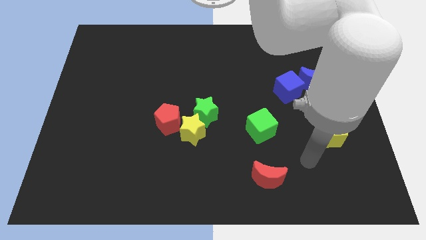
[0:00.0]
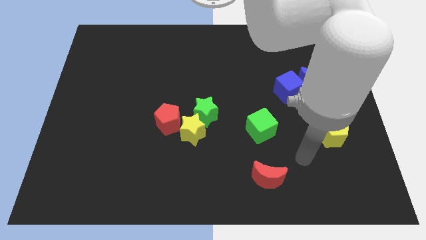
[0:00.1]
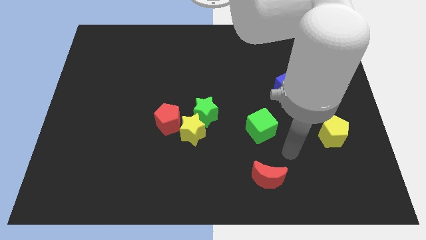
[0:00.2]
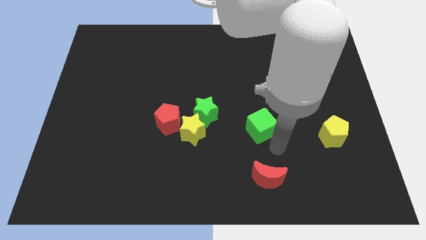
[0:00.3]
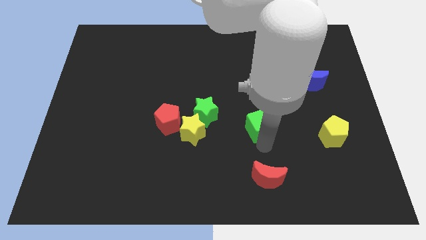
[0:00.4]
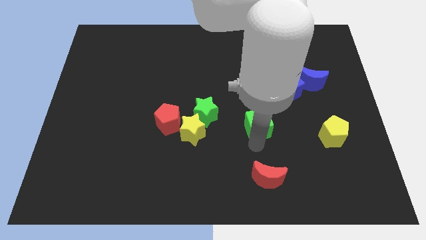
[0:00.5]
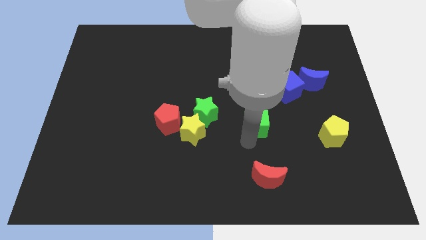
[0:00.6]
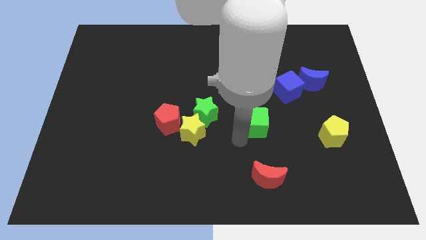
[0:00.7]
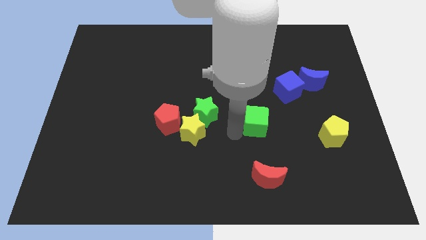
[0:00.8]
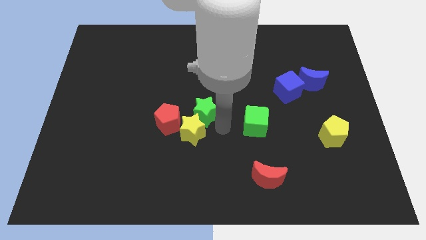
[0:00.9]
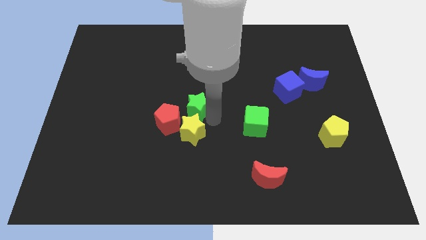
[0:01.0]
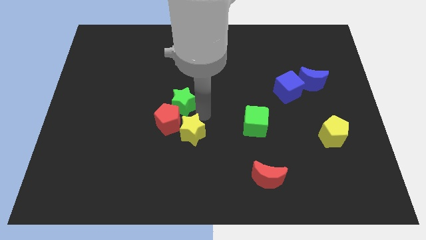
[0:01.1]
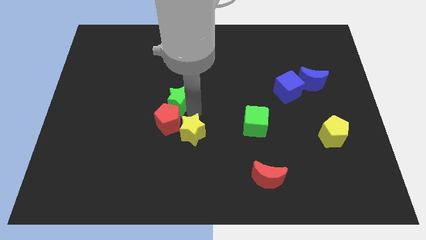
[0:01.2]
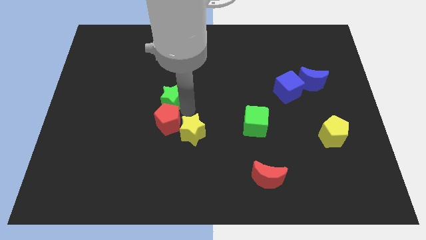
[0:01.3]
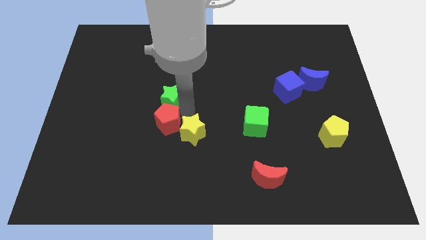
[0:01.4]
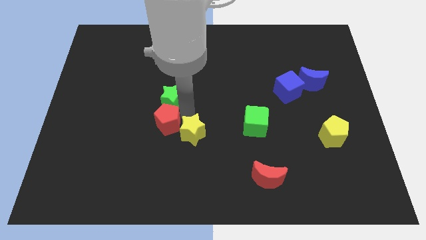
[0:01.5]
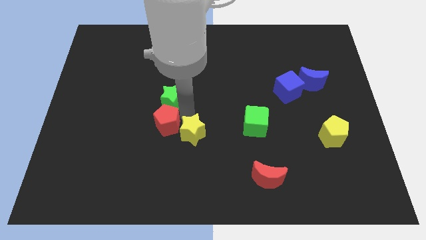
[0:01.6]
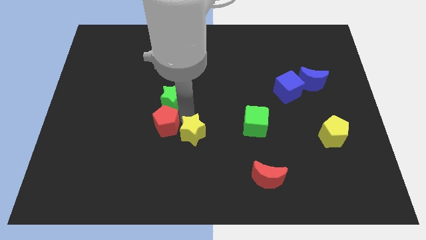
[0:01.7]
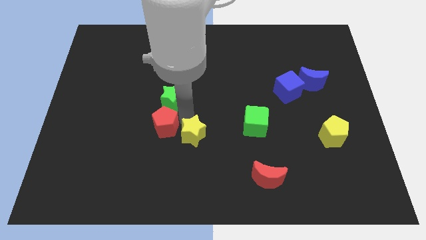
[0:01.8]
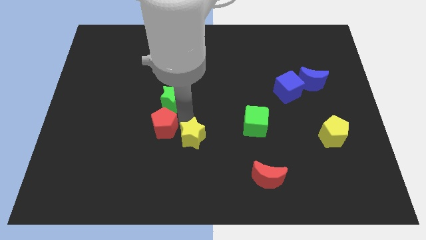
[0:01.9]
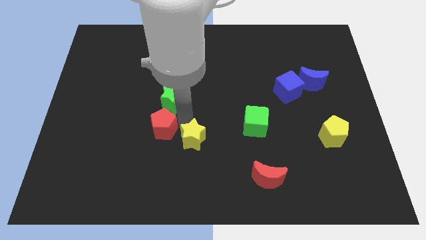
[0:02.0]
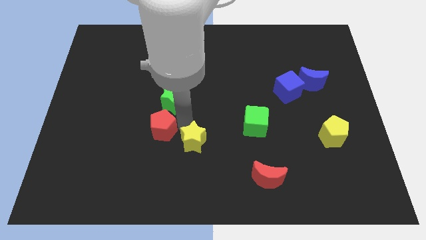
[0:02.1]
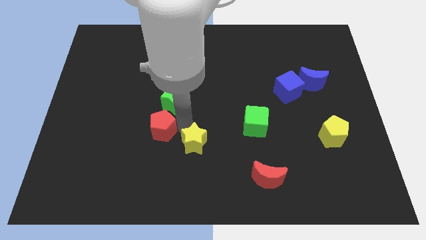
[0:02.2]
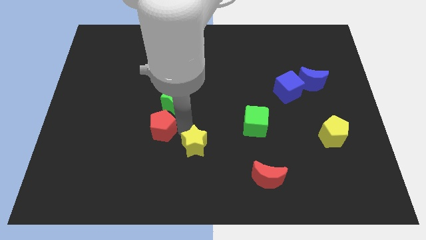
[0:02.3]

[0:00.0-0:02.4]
separate the yellow star from the green star and red pentagon

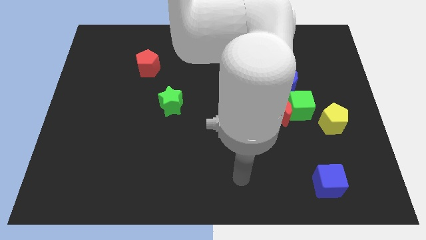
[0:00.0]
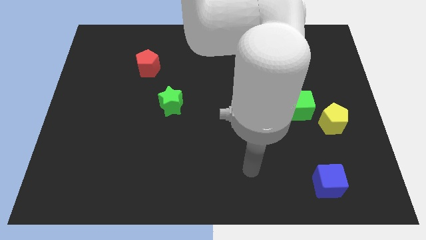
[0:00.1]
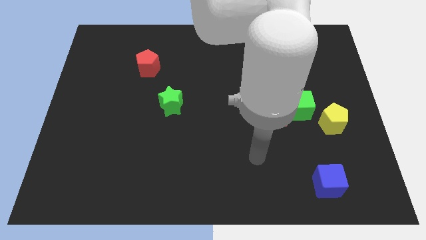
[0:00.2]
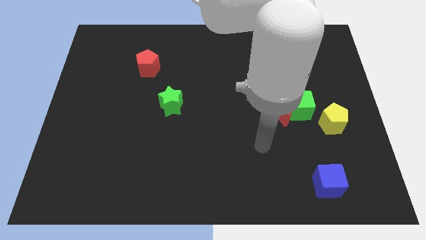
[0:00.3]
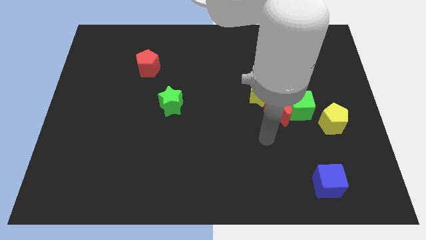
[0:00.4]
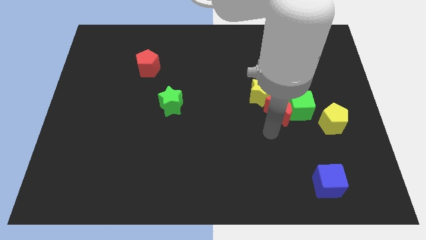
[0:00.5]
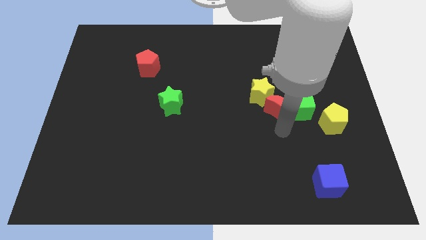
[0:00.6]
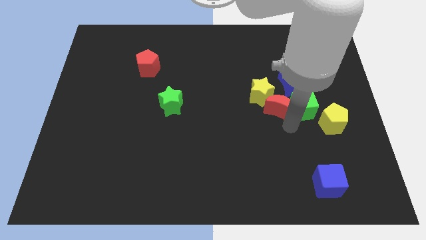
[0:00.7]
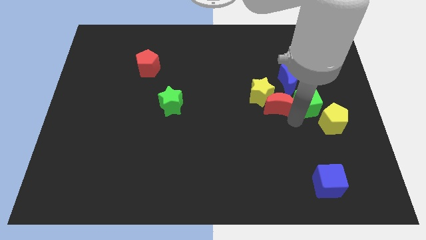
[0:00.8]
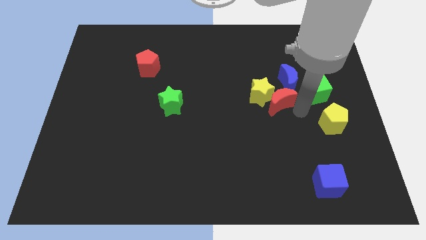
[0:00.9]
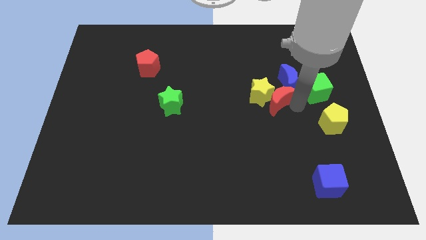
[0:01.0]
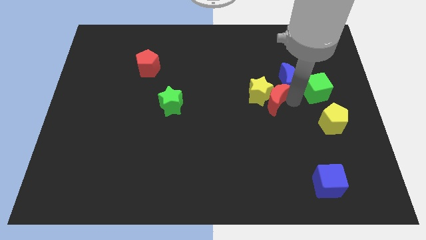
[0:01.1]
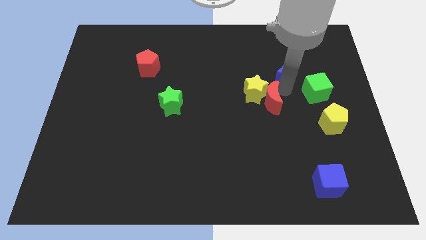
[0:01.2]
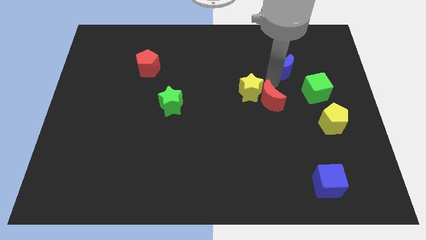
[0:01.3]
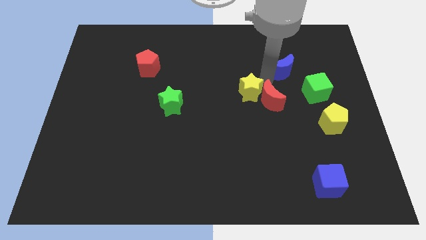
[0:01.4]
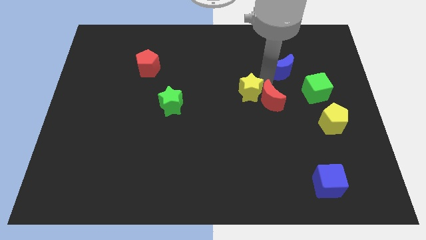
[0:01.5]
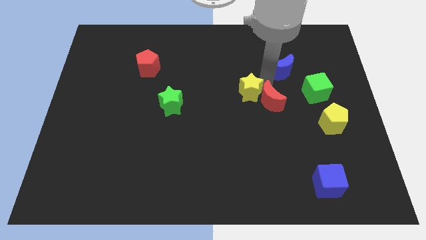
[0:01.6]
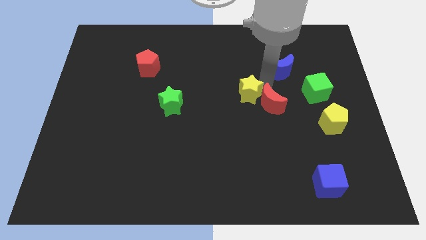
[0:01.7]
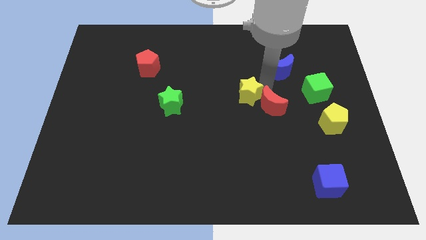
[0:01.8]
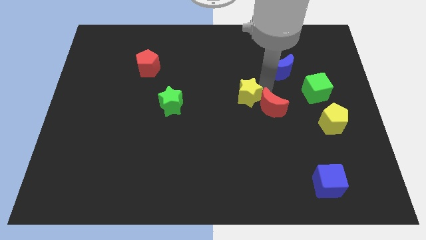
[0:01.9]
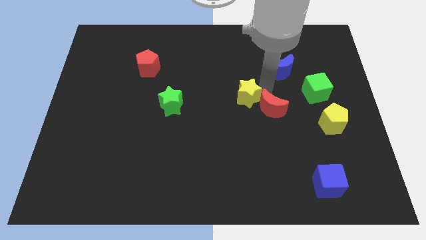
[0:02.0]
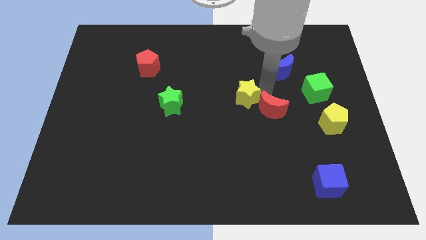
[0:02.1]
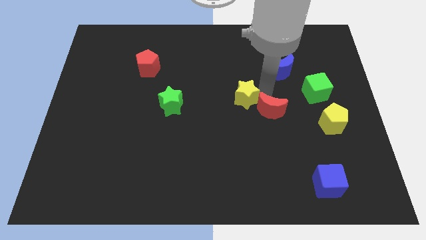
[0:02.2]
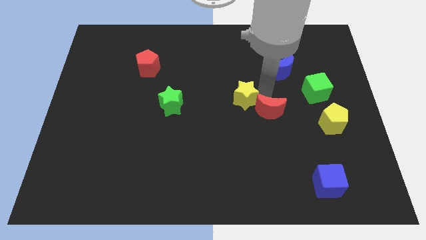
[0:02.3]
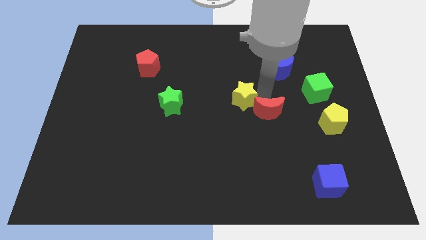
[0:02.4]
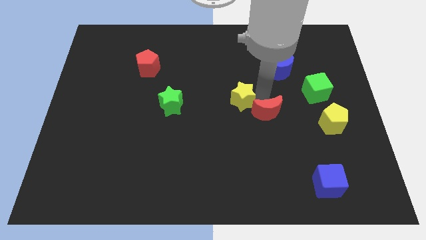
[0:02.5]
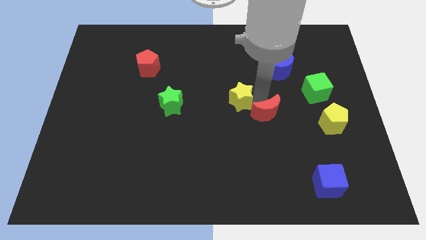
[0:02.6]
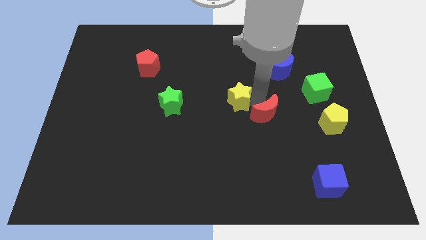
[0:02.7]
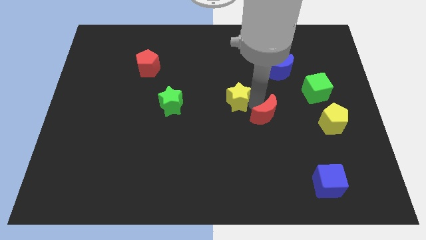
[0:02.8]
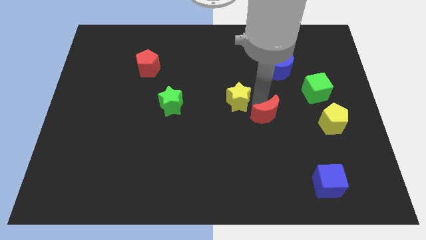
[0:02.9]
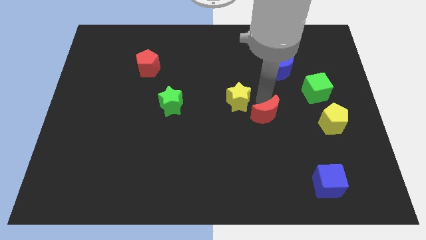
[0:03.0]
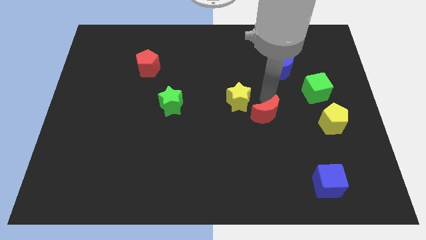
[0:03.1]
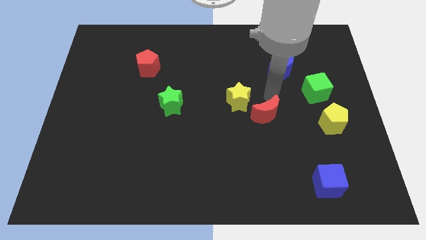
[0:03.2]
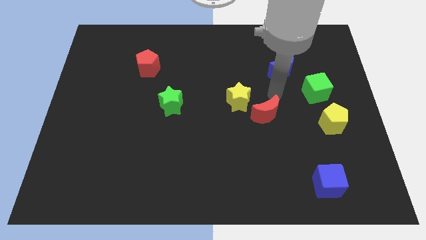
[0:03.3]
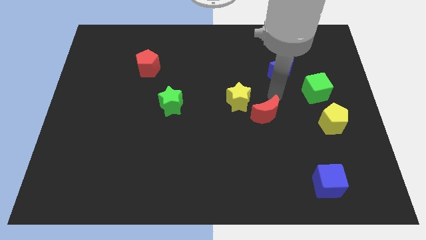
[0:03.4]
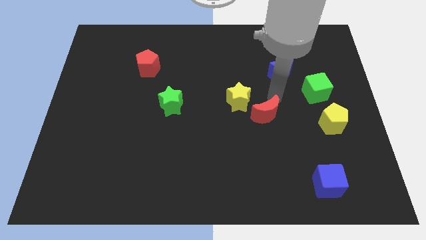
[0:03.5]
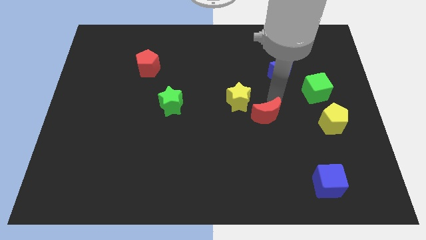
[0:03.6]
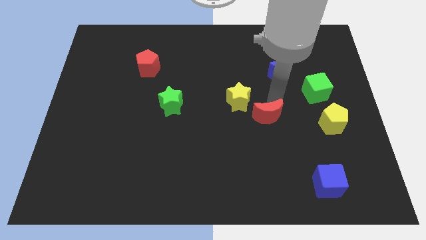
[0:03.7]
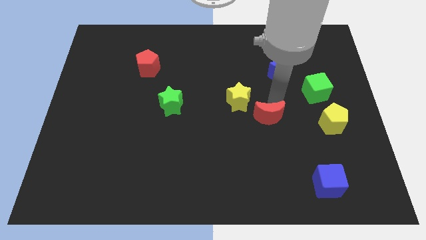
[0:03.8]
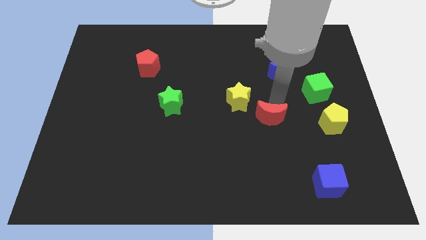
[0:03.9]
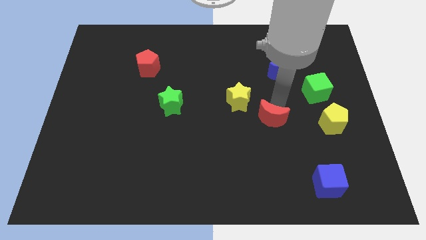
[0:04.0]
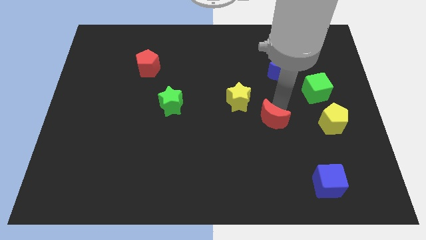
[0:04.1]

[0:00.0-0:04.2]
separate the red moon from the green cube, yellow star, and blue moon

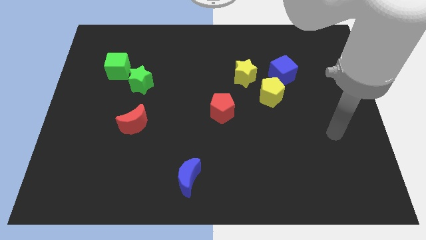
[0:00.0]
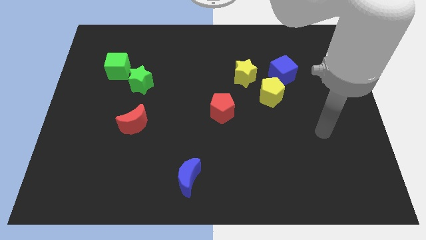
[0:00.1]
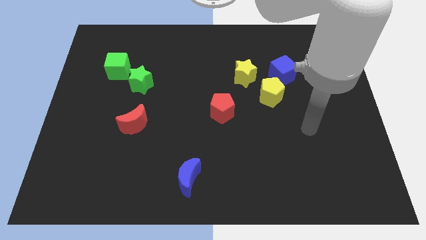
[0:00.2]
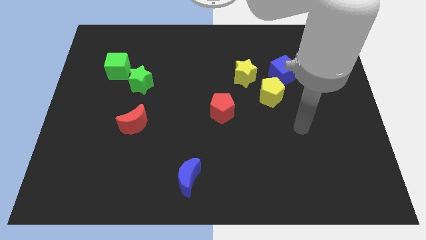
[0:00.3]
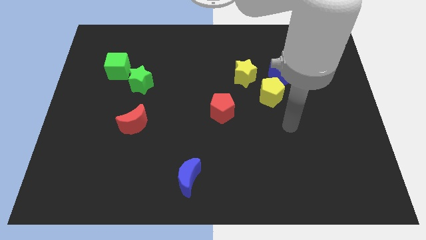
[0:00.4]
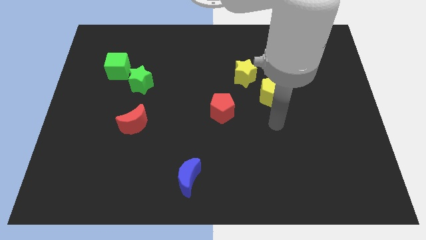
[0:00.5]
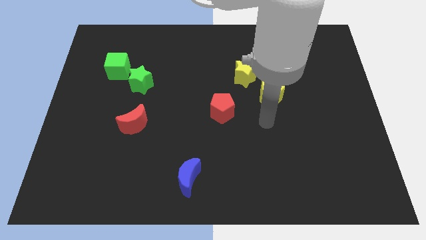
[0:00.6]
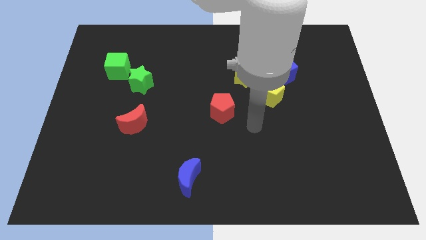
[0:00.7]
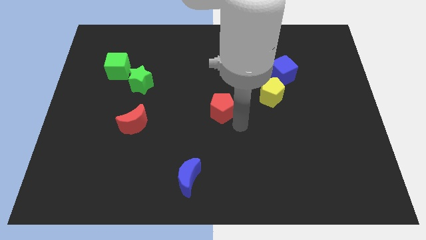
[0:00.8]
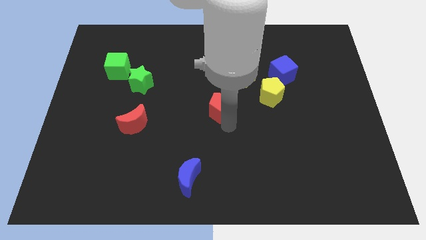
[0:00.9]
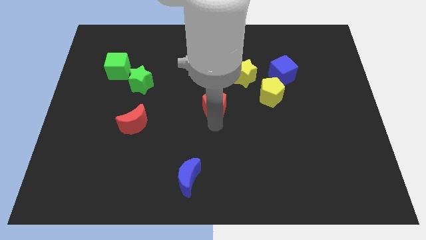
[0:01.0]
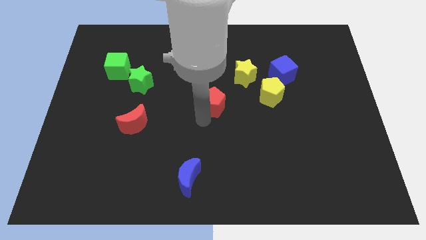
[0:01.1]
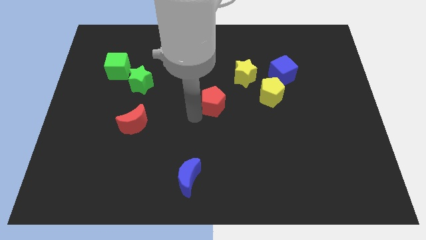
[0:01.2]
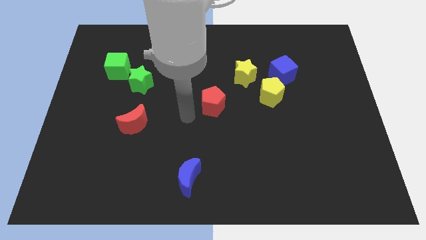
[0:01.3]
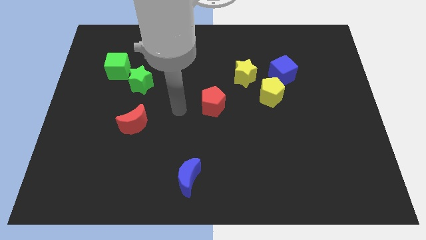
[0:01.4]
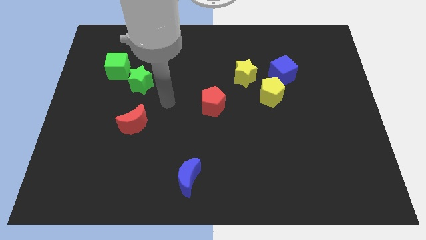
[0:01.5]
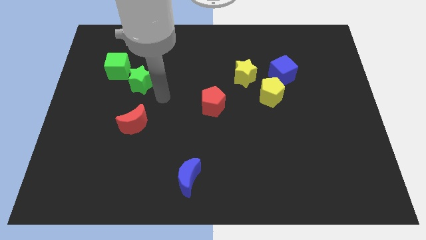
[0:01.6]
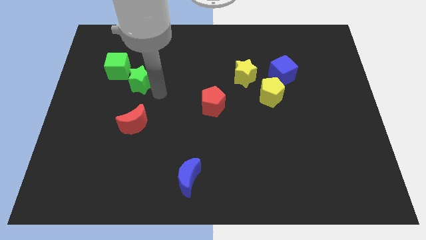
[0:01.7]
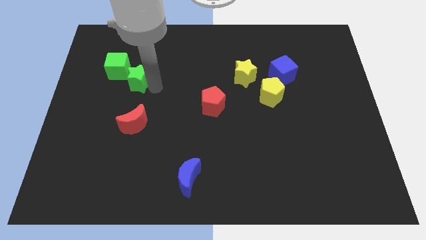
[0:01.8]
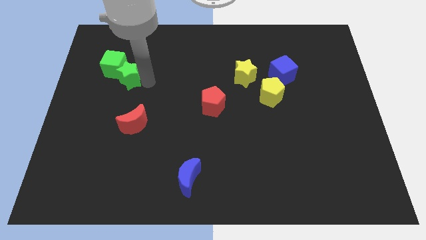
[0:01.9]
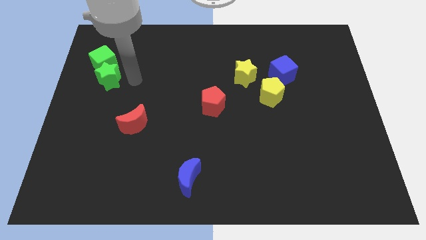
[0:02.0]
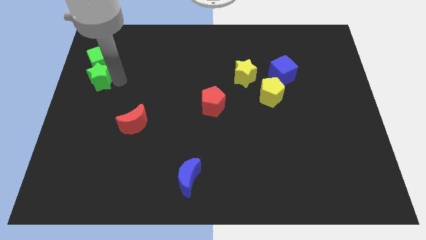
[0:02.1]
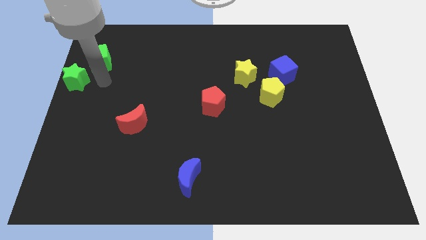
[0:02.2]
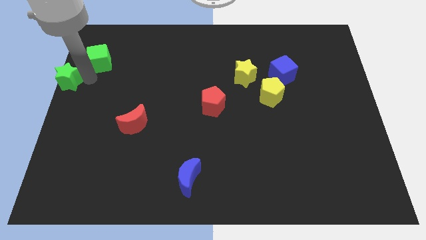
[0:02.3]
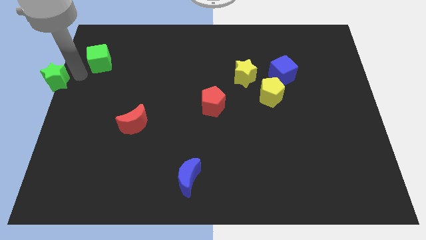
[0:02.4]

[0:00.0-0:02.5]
separate the green cube from the green star

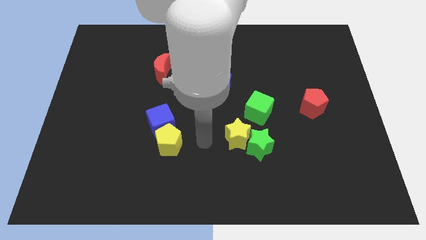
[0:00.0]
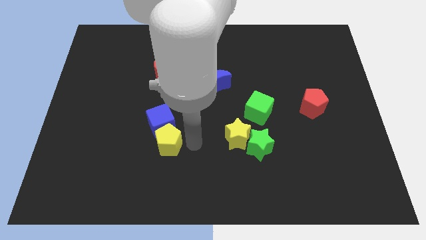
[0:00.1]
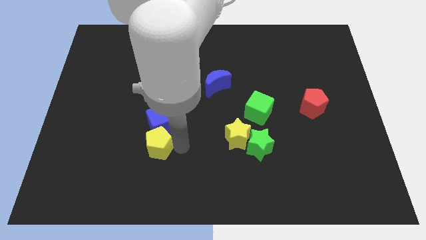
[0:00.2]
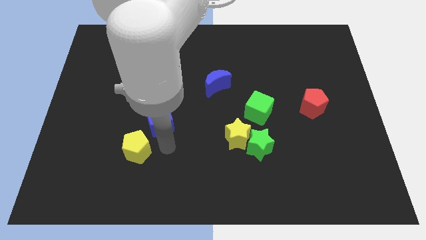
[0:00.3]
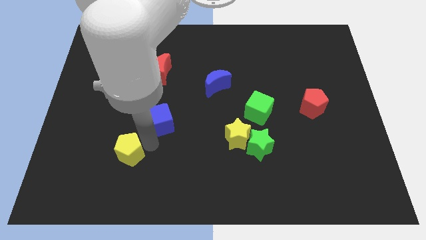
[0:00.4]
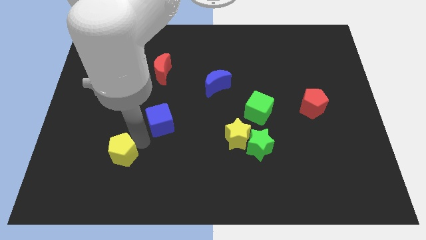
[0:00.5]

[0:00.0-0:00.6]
move the blue cube away from the yellow pentagon
